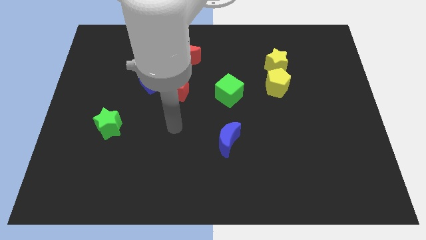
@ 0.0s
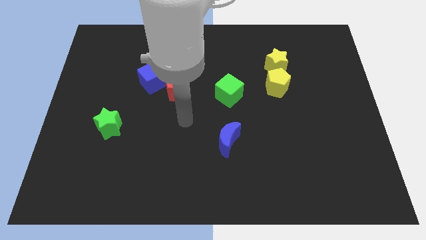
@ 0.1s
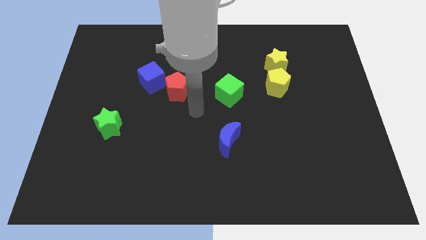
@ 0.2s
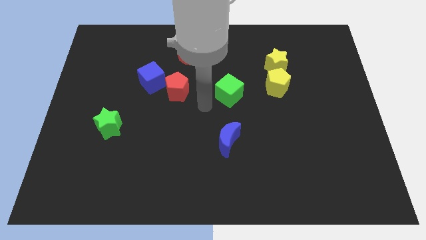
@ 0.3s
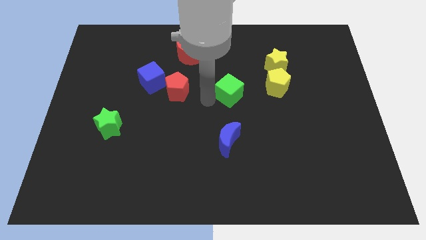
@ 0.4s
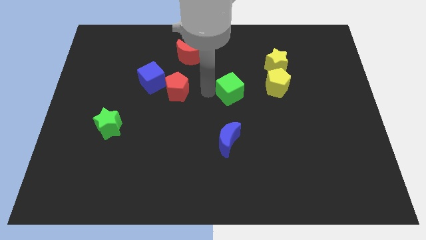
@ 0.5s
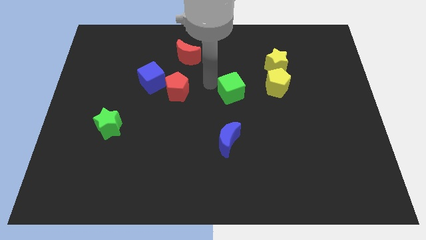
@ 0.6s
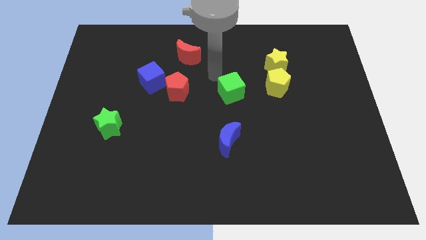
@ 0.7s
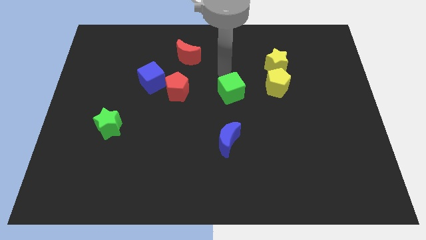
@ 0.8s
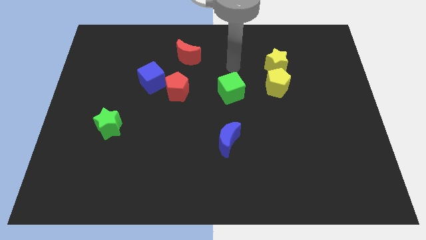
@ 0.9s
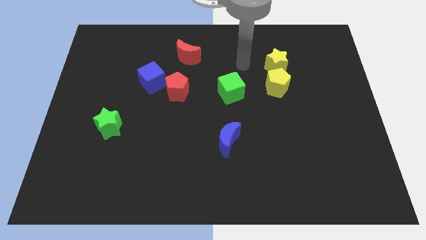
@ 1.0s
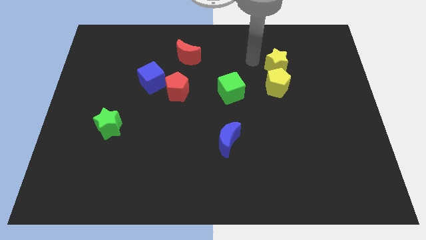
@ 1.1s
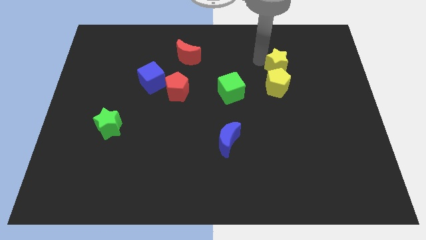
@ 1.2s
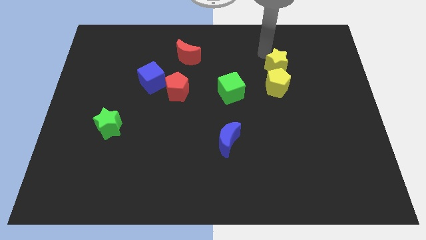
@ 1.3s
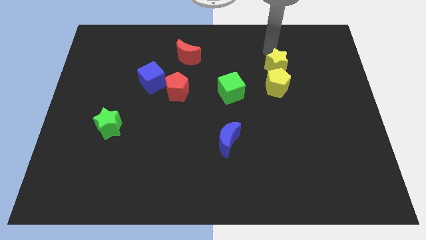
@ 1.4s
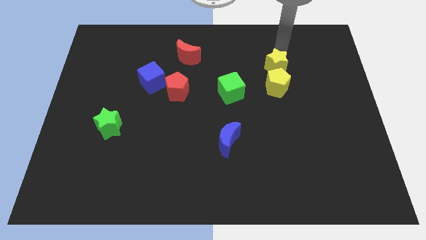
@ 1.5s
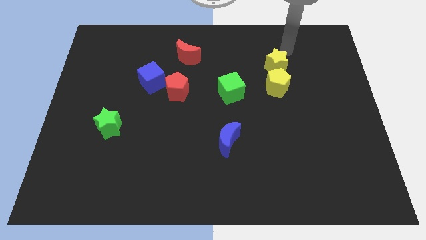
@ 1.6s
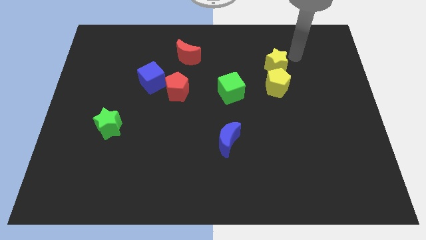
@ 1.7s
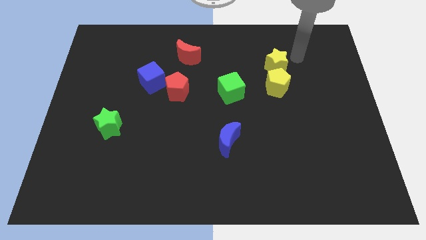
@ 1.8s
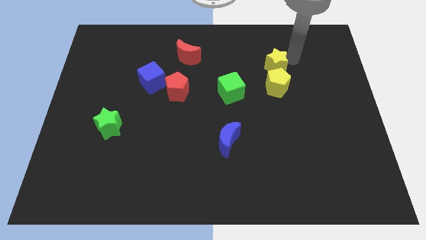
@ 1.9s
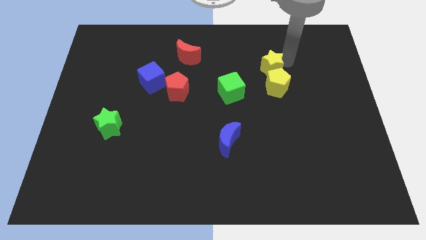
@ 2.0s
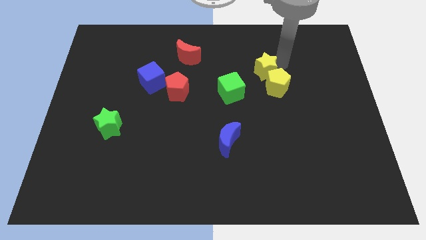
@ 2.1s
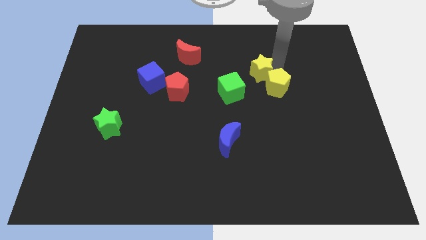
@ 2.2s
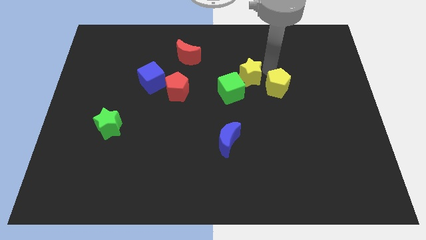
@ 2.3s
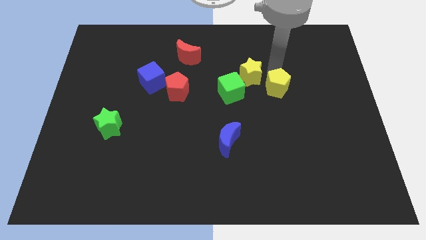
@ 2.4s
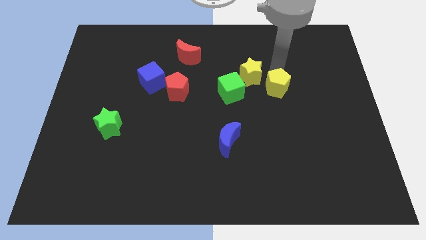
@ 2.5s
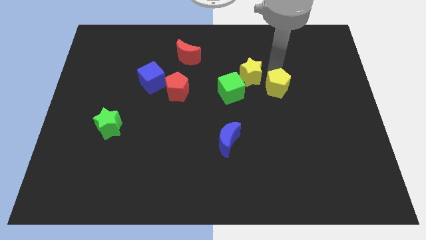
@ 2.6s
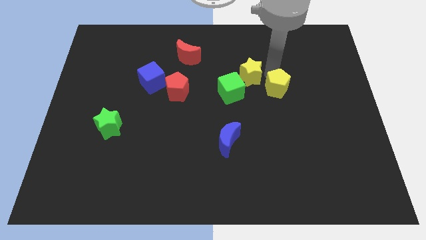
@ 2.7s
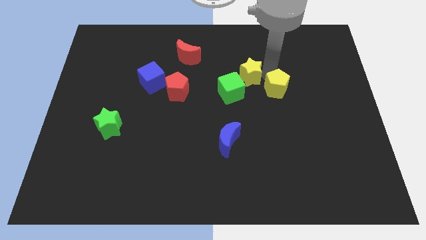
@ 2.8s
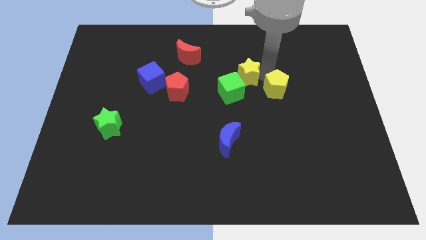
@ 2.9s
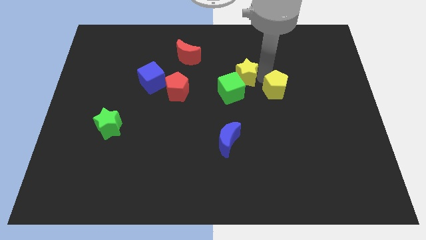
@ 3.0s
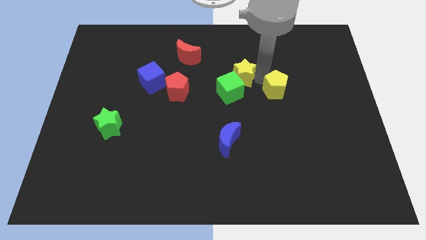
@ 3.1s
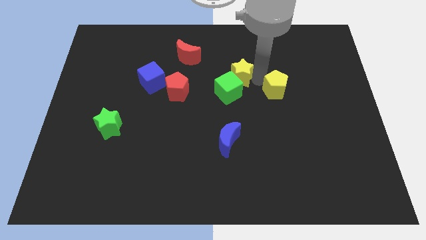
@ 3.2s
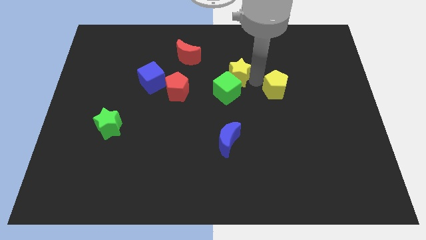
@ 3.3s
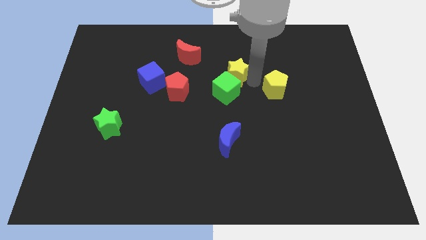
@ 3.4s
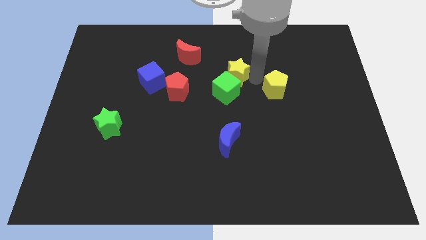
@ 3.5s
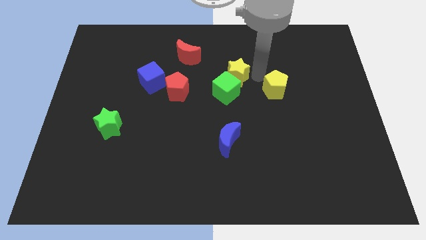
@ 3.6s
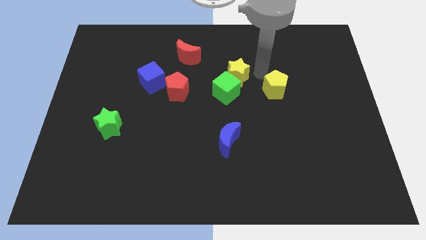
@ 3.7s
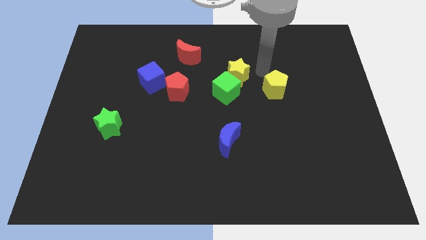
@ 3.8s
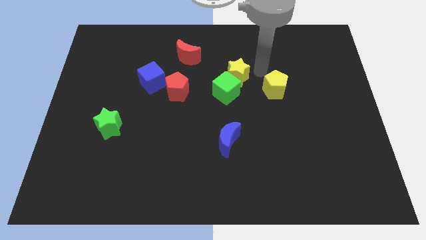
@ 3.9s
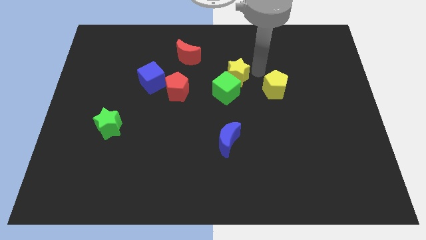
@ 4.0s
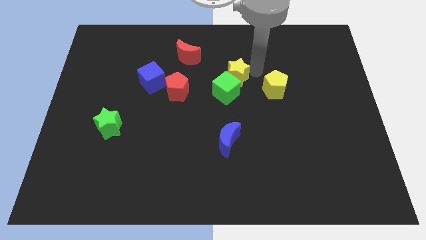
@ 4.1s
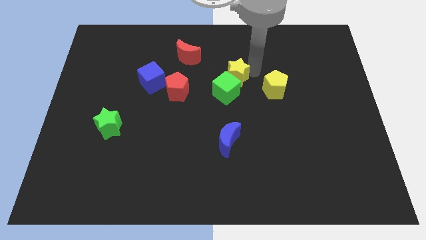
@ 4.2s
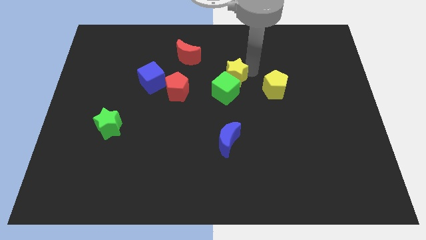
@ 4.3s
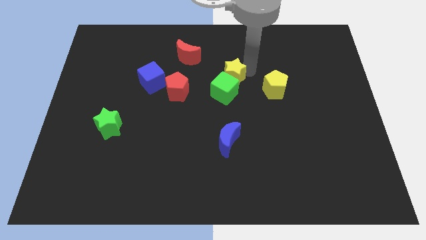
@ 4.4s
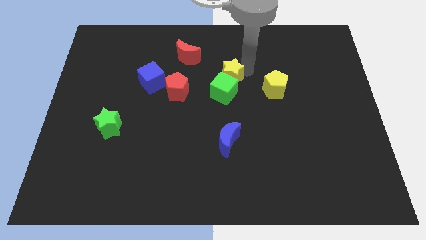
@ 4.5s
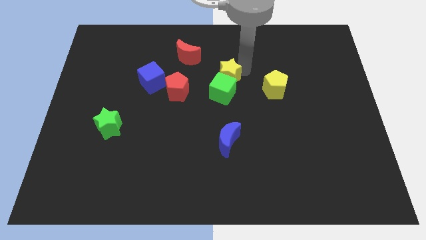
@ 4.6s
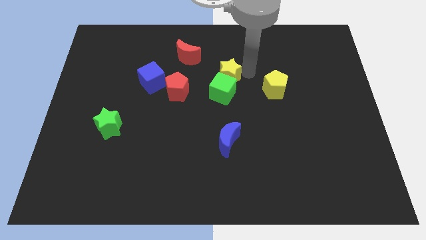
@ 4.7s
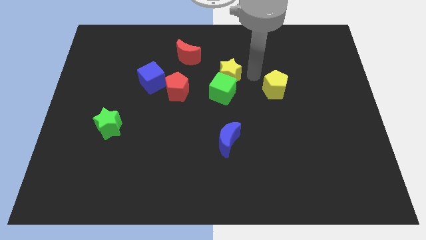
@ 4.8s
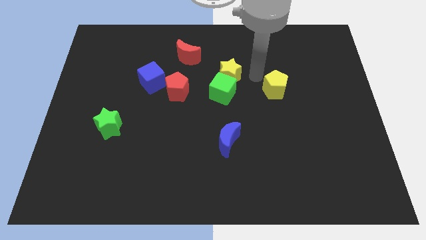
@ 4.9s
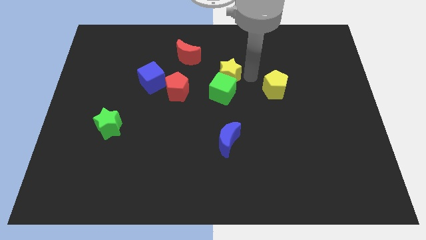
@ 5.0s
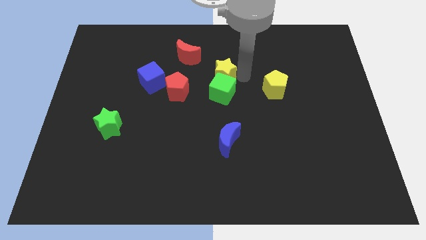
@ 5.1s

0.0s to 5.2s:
put the yellow star to the top left side of the green cube

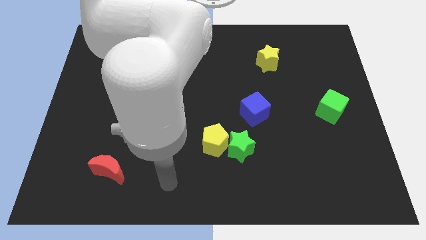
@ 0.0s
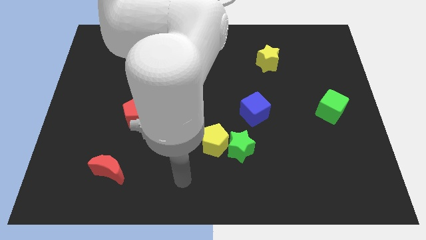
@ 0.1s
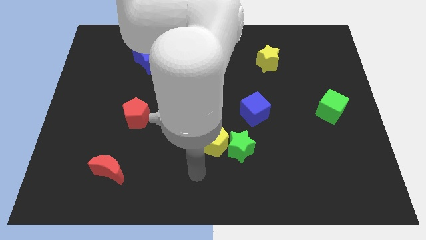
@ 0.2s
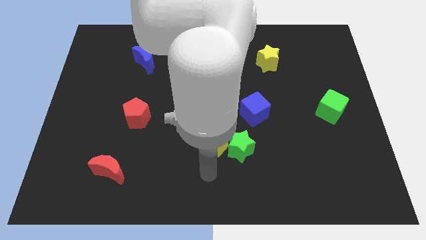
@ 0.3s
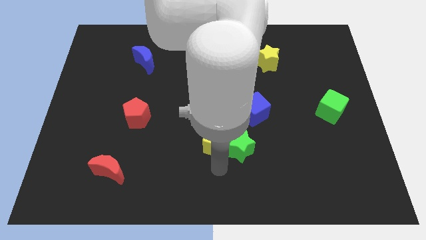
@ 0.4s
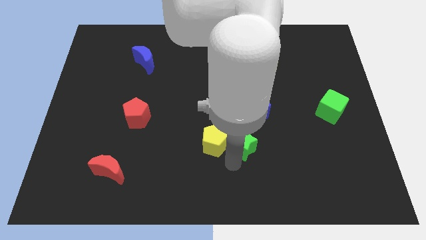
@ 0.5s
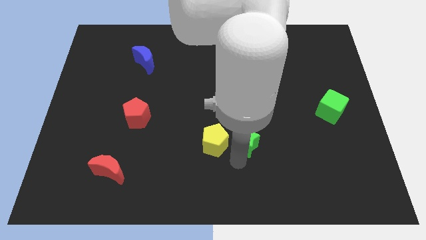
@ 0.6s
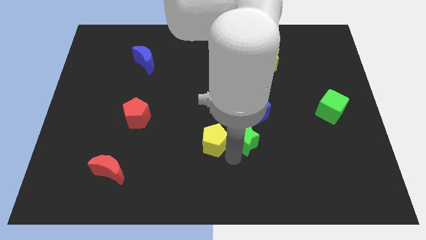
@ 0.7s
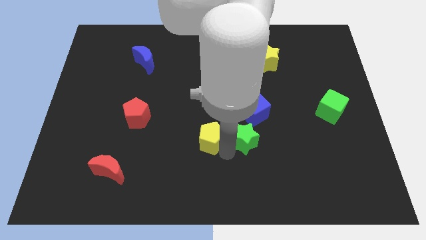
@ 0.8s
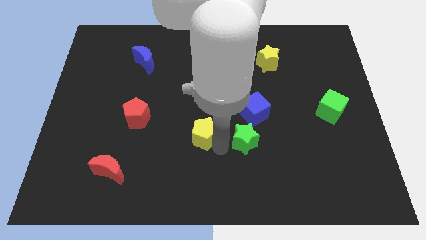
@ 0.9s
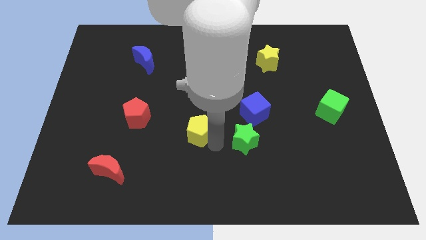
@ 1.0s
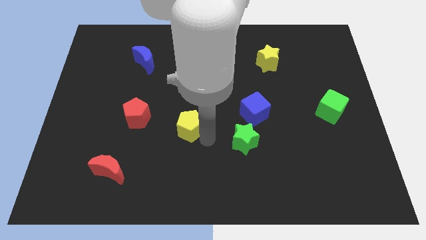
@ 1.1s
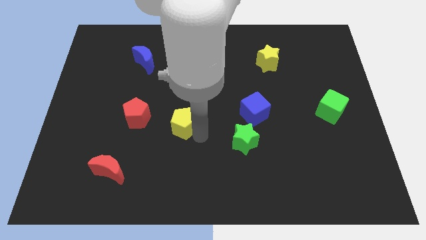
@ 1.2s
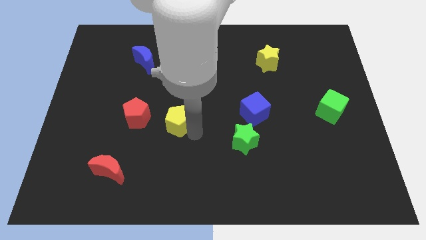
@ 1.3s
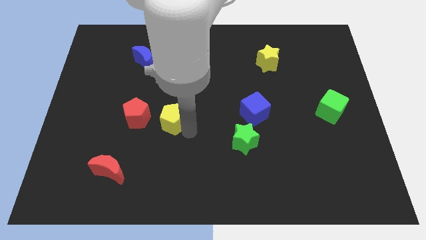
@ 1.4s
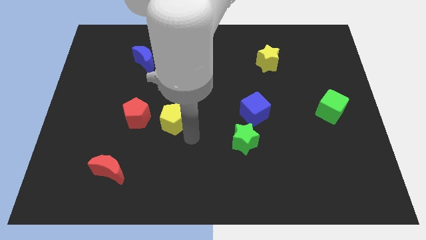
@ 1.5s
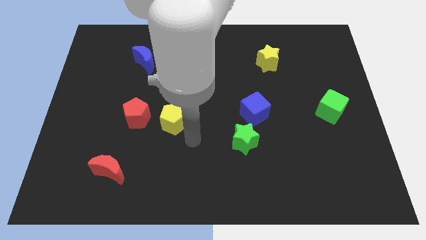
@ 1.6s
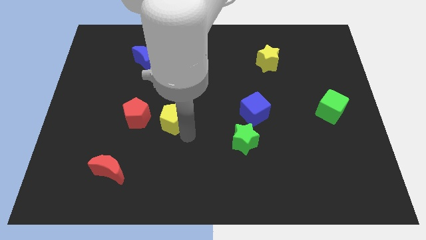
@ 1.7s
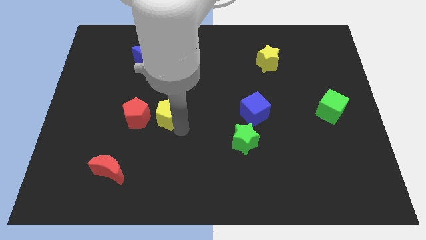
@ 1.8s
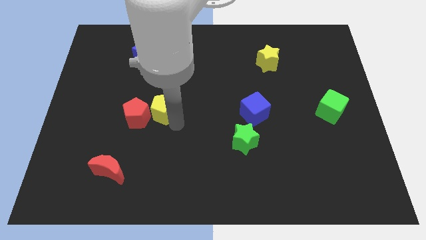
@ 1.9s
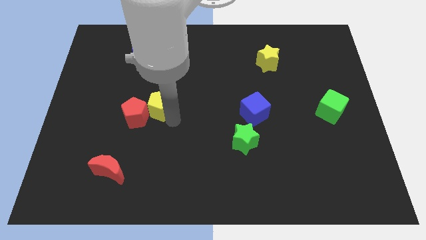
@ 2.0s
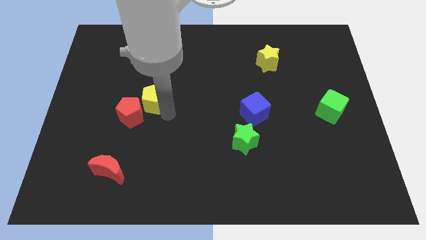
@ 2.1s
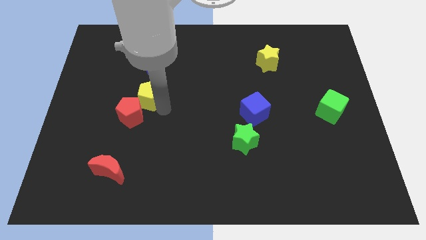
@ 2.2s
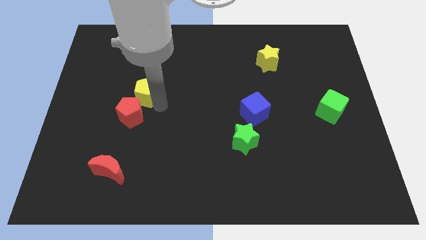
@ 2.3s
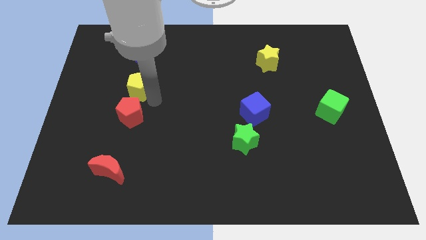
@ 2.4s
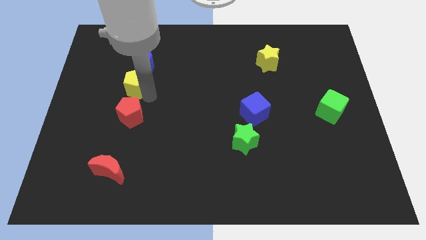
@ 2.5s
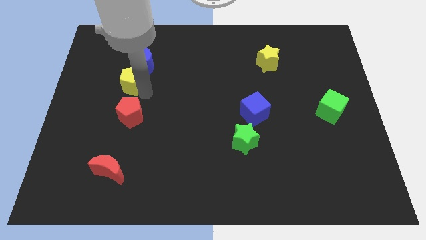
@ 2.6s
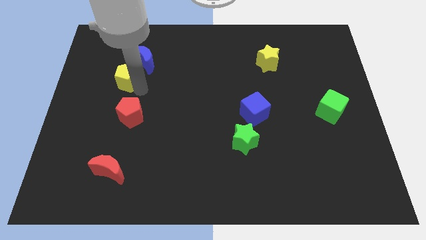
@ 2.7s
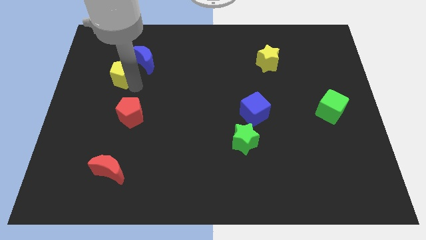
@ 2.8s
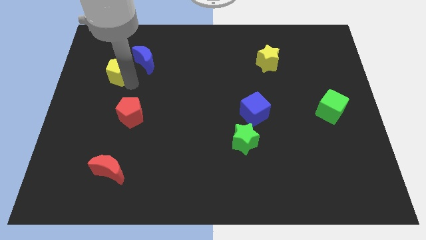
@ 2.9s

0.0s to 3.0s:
put the yellow pentagon to the left of the blue moon
